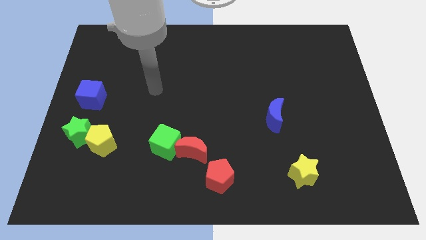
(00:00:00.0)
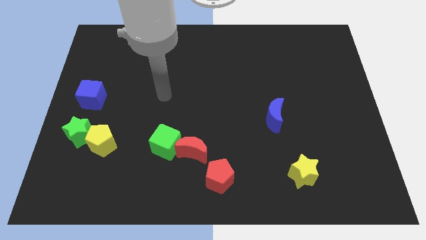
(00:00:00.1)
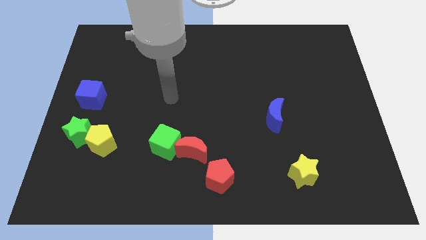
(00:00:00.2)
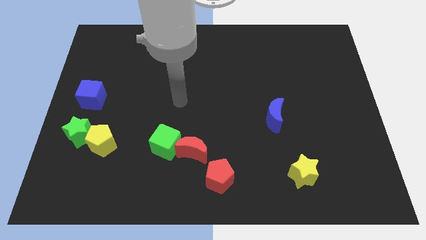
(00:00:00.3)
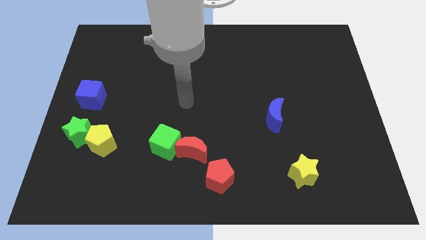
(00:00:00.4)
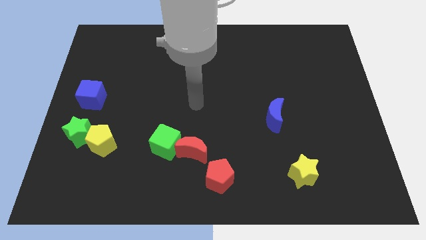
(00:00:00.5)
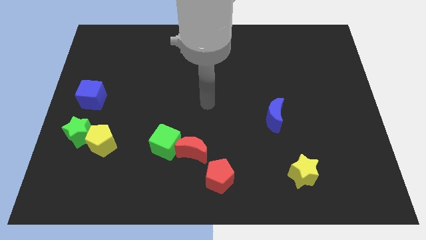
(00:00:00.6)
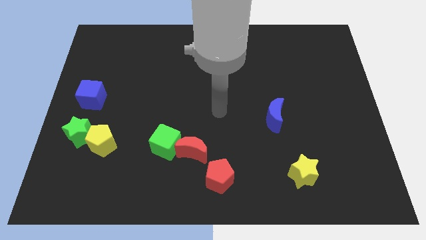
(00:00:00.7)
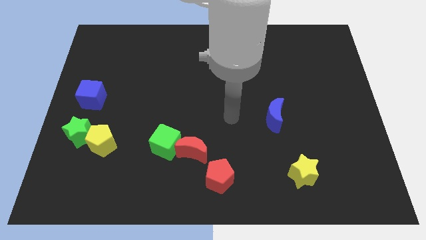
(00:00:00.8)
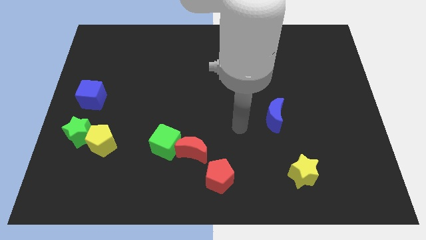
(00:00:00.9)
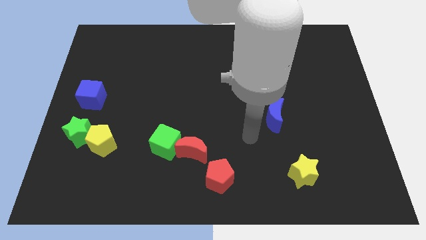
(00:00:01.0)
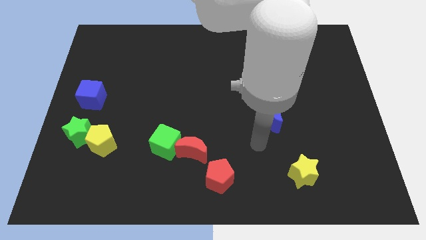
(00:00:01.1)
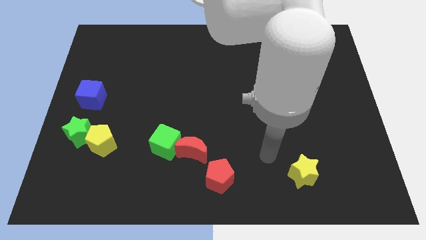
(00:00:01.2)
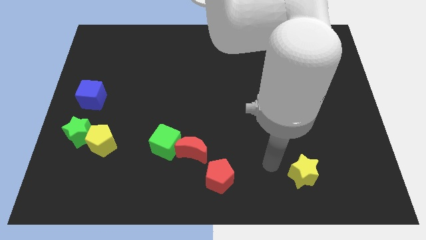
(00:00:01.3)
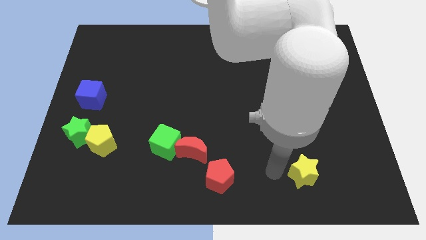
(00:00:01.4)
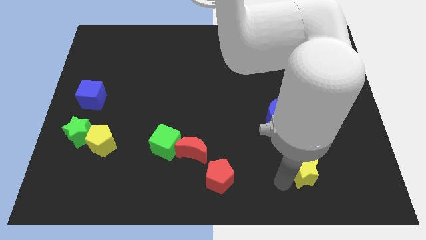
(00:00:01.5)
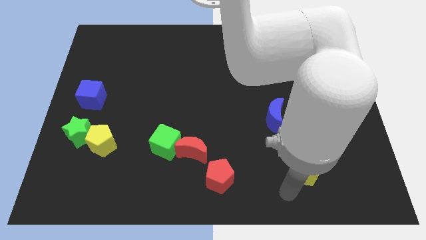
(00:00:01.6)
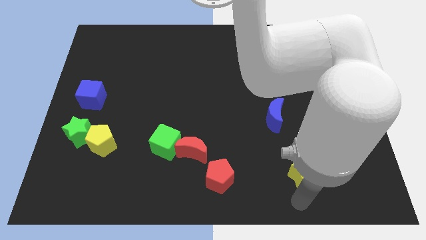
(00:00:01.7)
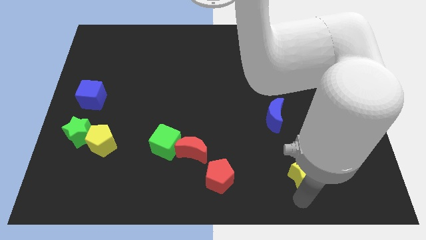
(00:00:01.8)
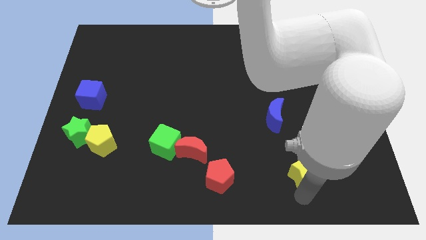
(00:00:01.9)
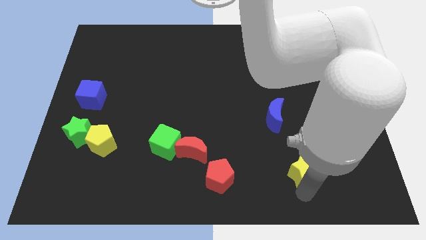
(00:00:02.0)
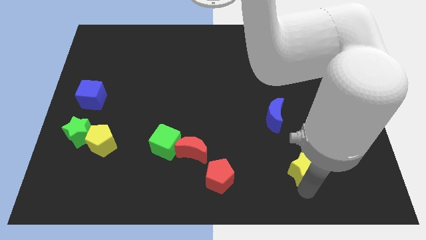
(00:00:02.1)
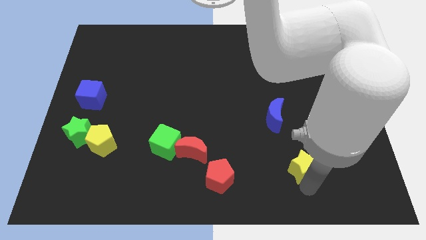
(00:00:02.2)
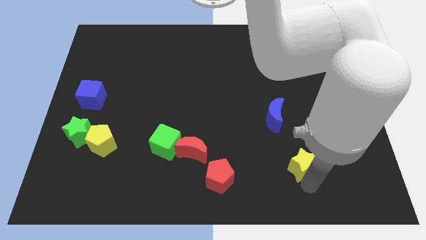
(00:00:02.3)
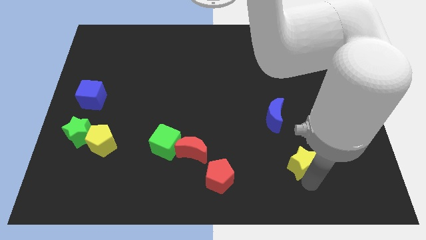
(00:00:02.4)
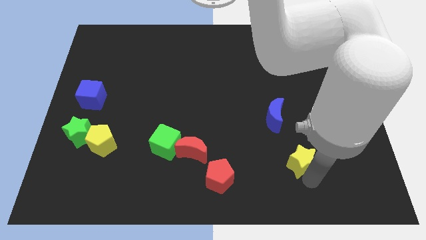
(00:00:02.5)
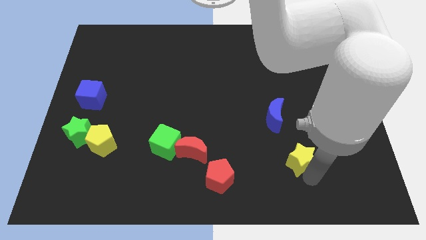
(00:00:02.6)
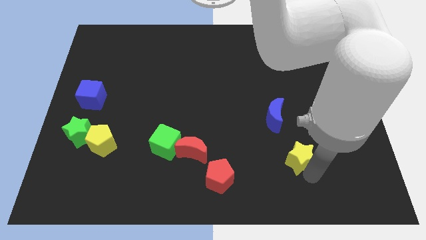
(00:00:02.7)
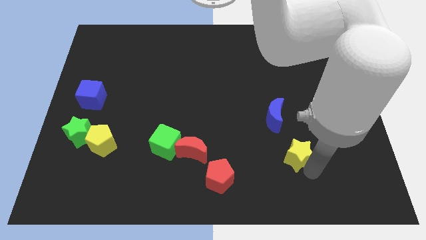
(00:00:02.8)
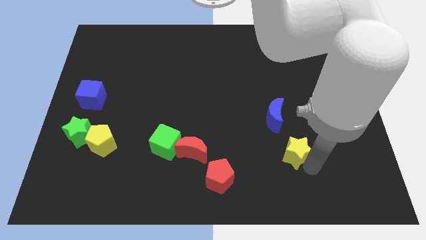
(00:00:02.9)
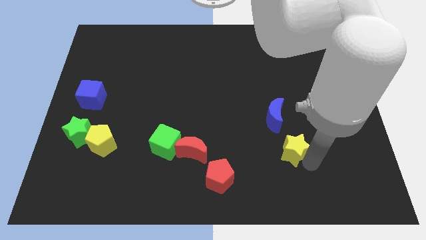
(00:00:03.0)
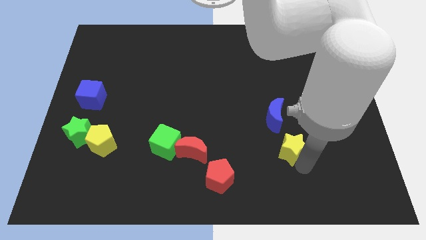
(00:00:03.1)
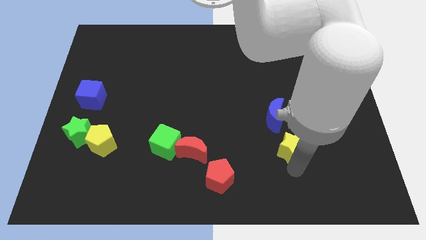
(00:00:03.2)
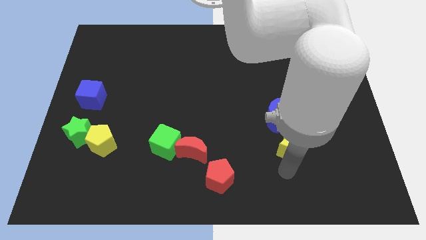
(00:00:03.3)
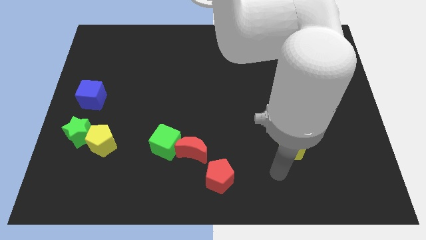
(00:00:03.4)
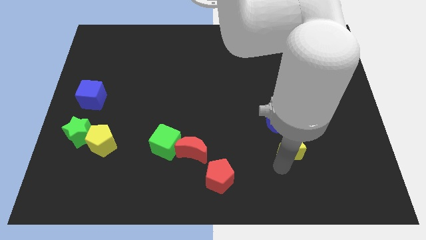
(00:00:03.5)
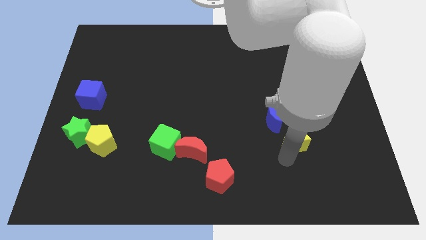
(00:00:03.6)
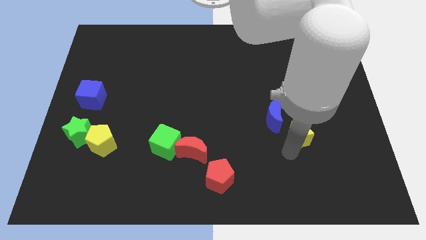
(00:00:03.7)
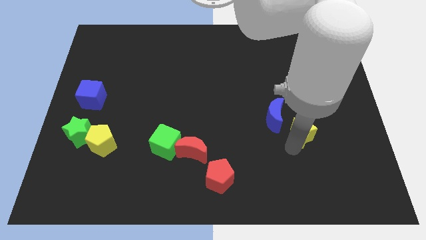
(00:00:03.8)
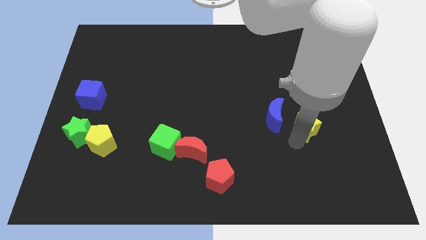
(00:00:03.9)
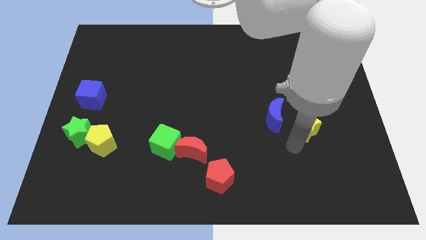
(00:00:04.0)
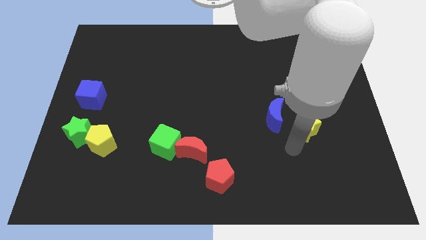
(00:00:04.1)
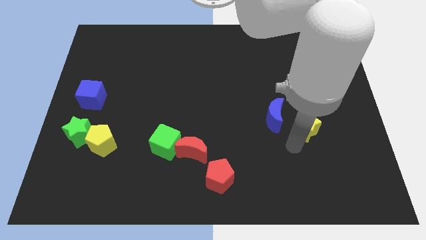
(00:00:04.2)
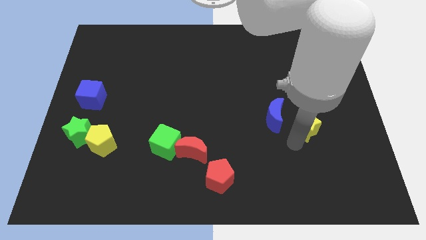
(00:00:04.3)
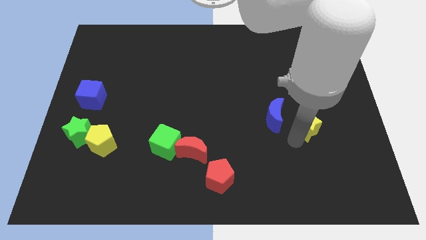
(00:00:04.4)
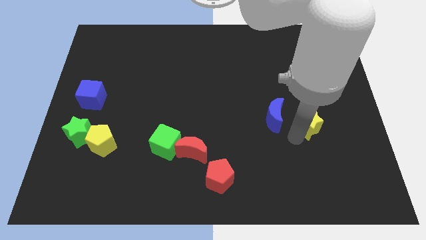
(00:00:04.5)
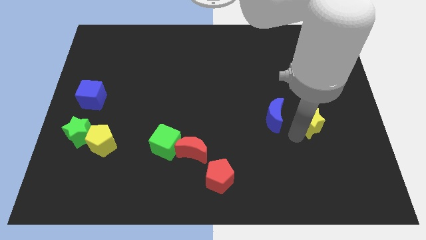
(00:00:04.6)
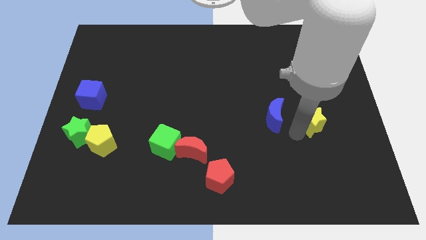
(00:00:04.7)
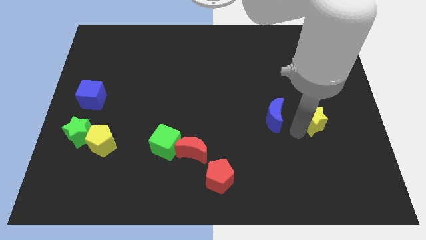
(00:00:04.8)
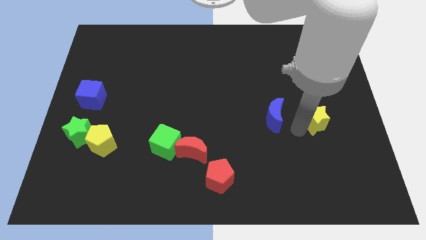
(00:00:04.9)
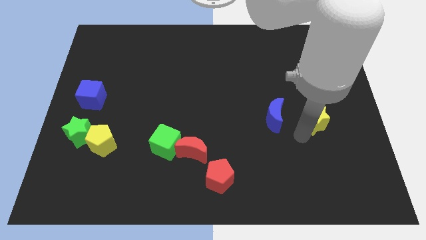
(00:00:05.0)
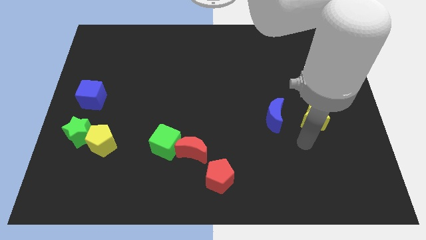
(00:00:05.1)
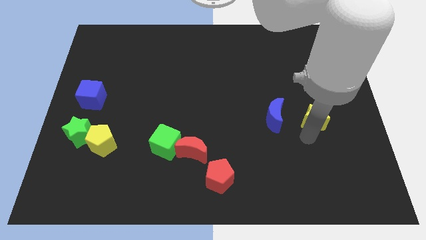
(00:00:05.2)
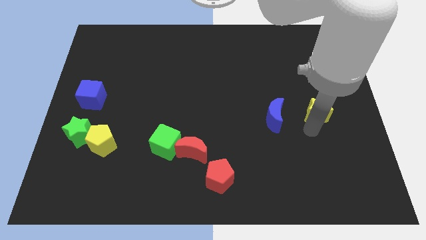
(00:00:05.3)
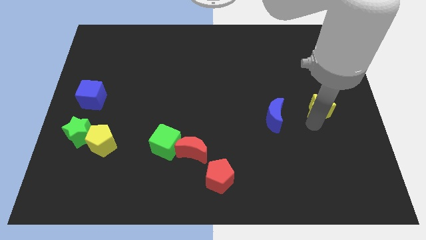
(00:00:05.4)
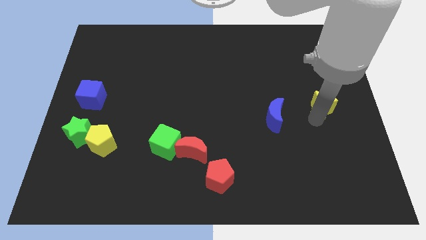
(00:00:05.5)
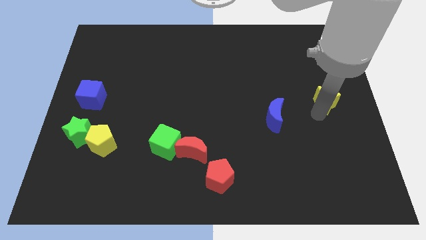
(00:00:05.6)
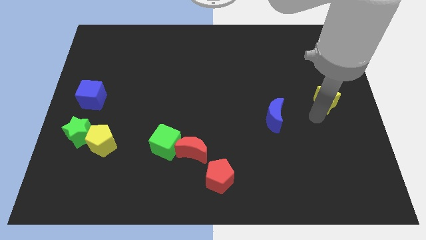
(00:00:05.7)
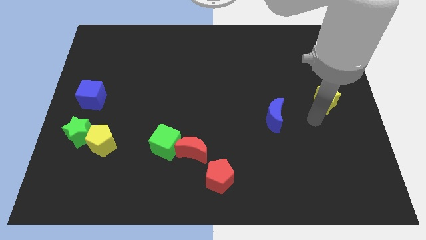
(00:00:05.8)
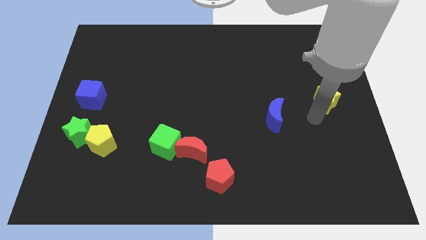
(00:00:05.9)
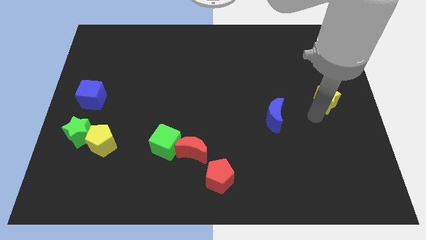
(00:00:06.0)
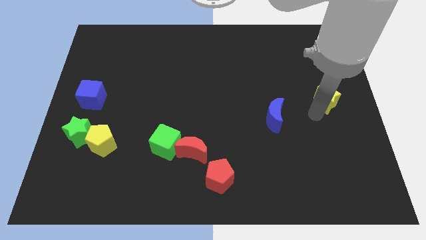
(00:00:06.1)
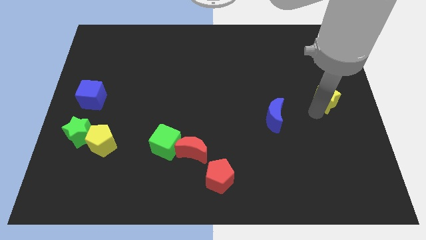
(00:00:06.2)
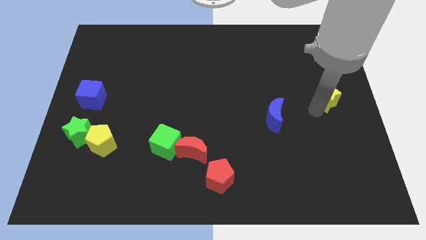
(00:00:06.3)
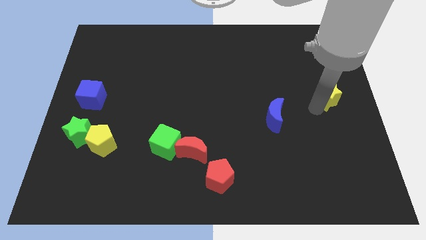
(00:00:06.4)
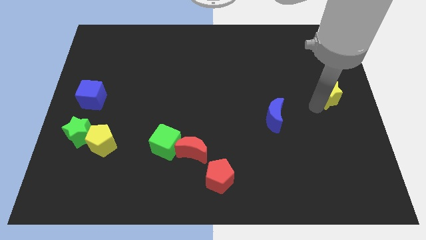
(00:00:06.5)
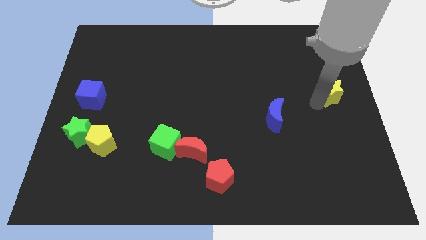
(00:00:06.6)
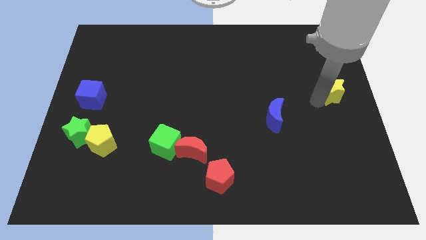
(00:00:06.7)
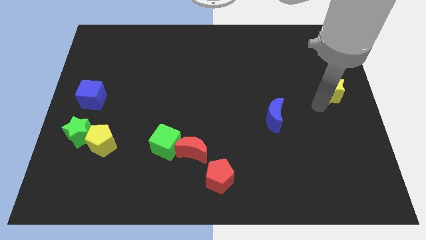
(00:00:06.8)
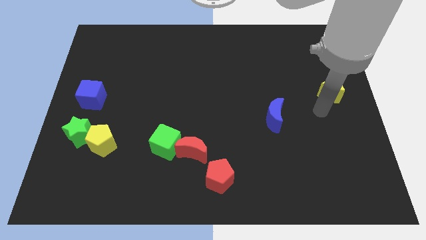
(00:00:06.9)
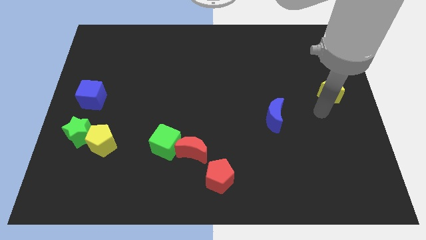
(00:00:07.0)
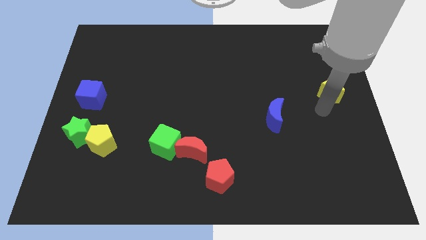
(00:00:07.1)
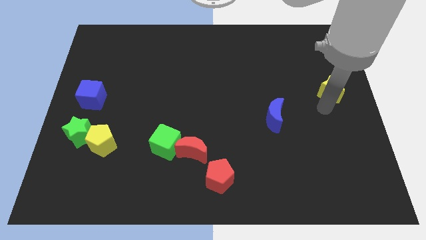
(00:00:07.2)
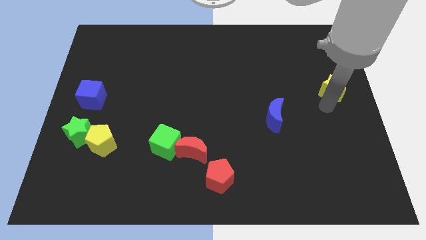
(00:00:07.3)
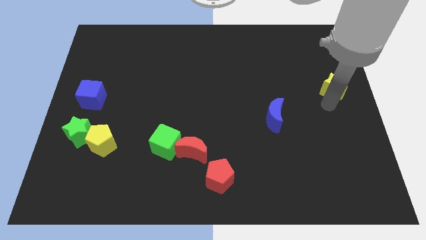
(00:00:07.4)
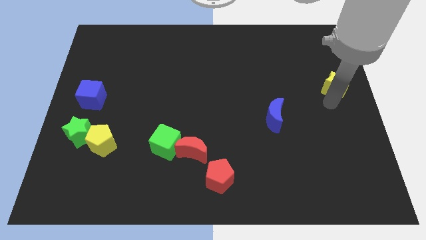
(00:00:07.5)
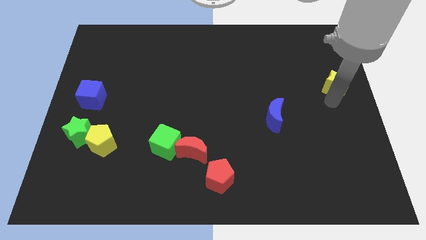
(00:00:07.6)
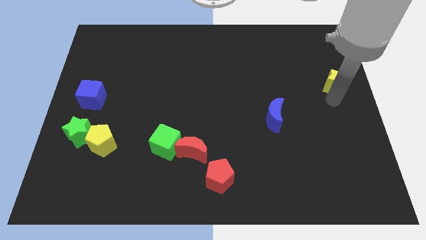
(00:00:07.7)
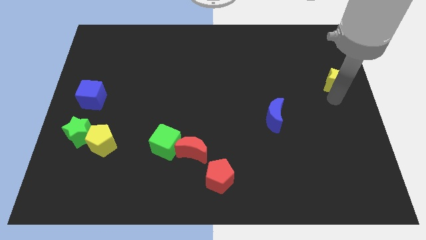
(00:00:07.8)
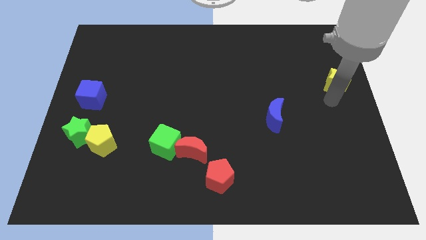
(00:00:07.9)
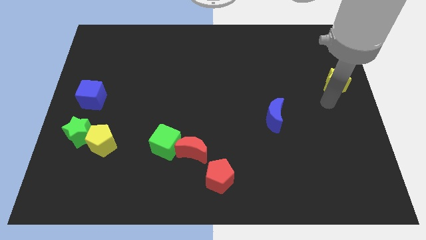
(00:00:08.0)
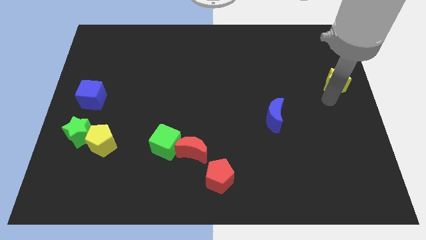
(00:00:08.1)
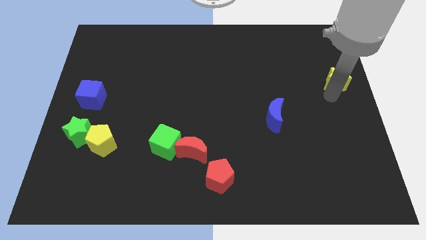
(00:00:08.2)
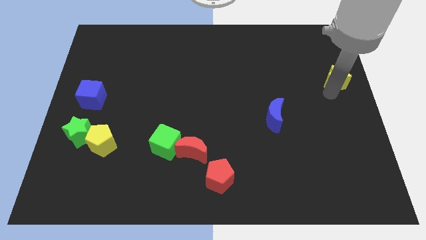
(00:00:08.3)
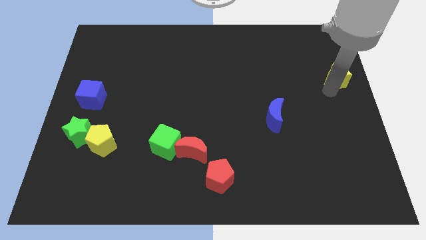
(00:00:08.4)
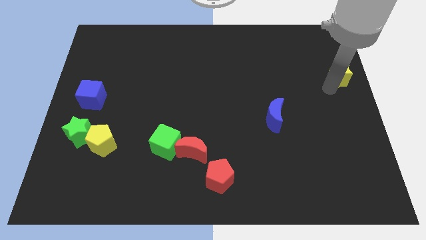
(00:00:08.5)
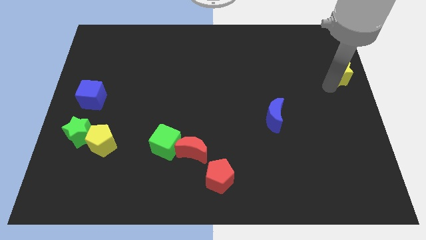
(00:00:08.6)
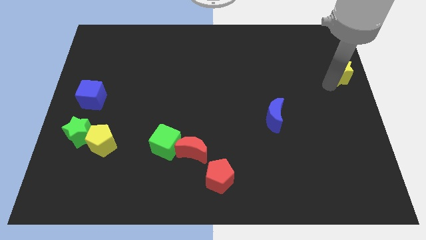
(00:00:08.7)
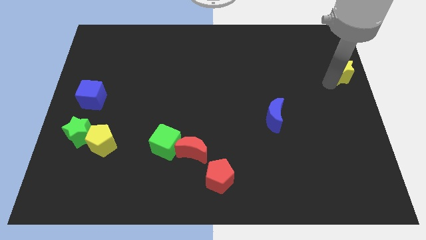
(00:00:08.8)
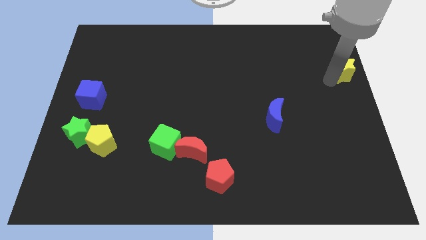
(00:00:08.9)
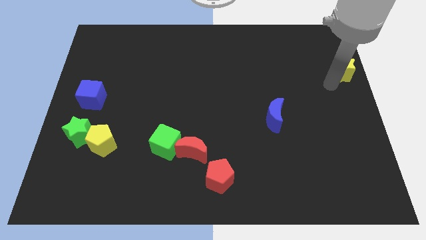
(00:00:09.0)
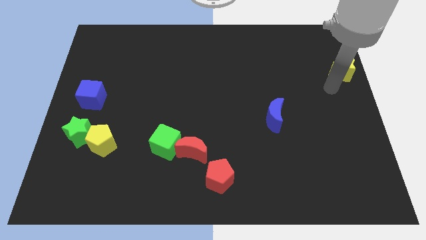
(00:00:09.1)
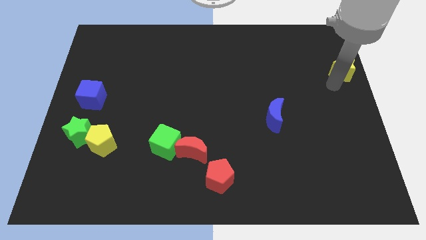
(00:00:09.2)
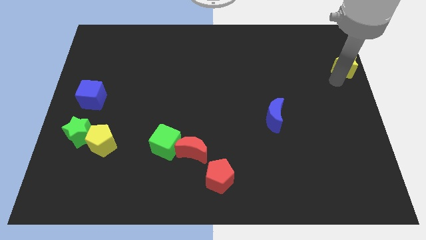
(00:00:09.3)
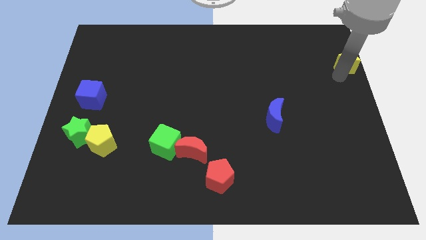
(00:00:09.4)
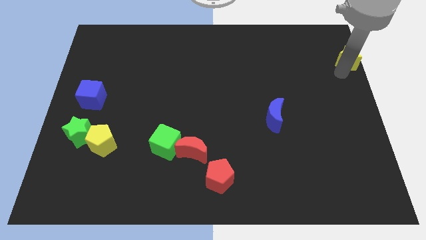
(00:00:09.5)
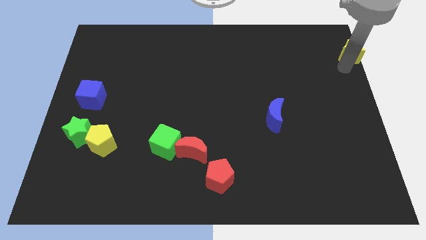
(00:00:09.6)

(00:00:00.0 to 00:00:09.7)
put the yellow star to the top right corner
